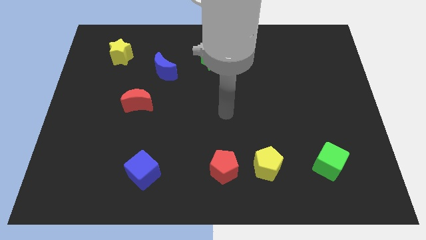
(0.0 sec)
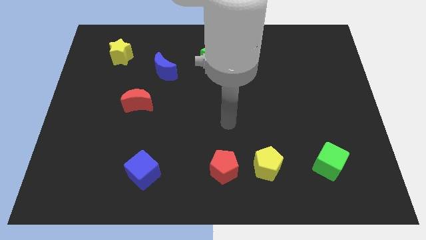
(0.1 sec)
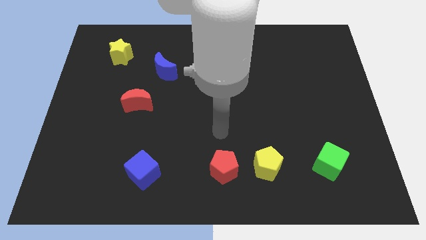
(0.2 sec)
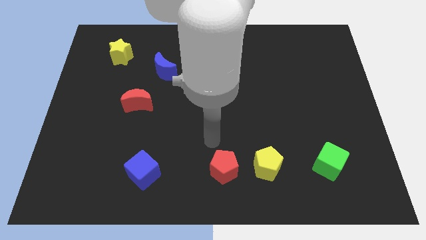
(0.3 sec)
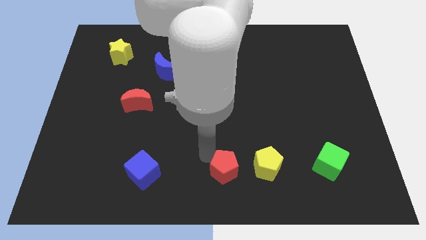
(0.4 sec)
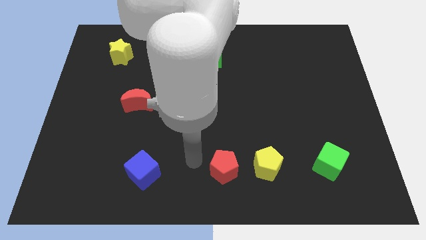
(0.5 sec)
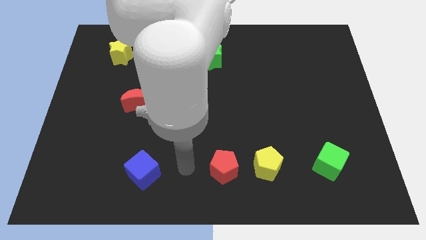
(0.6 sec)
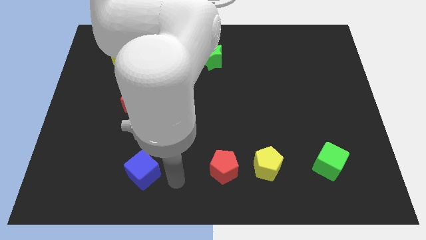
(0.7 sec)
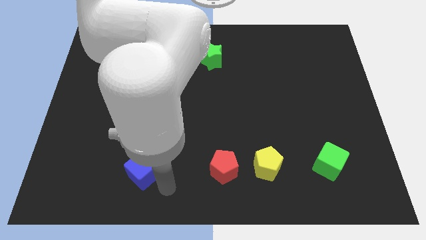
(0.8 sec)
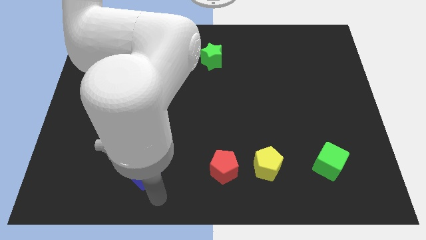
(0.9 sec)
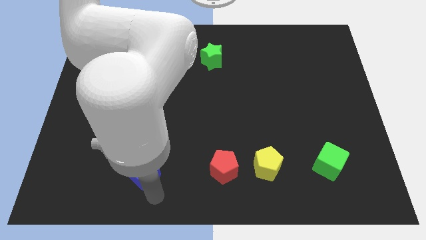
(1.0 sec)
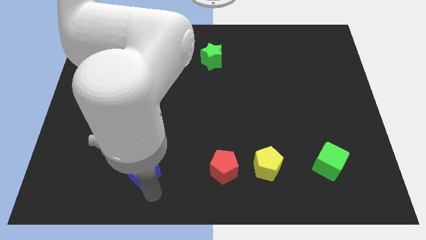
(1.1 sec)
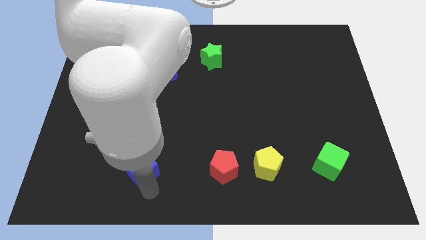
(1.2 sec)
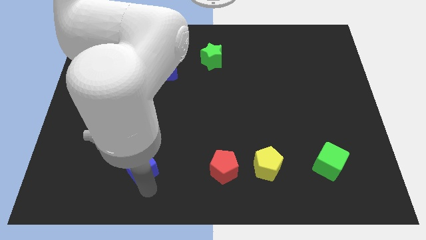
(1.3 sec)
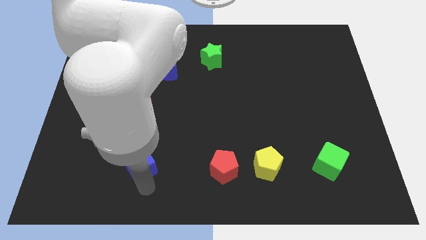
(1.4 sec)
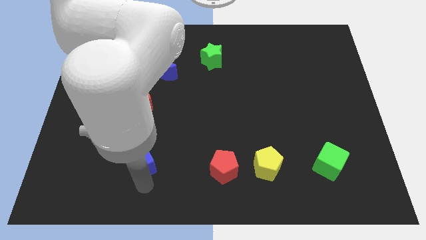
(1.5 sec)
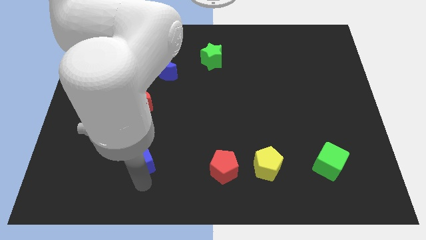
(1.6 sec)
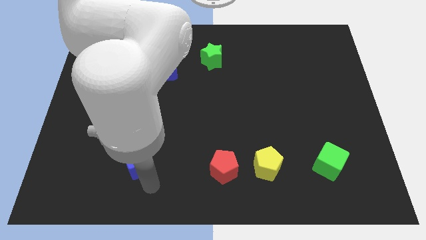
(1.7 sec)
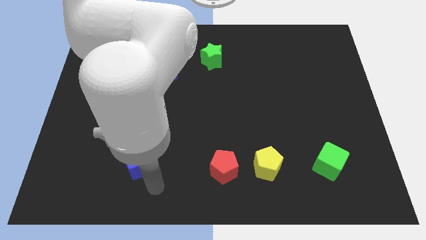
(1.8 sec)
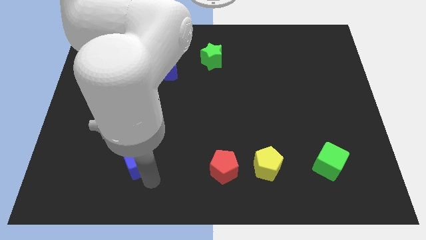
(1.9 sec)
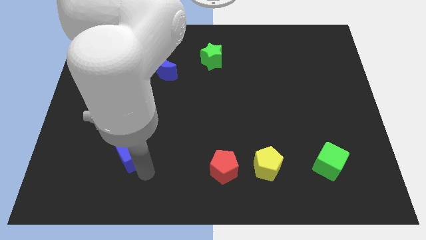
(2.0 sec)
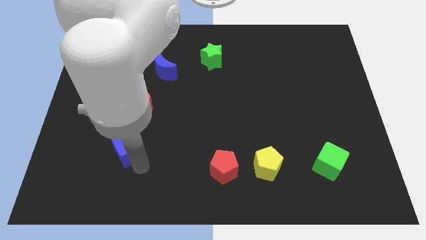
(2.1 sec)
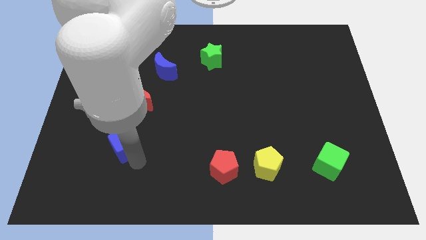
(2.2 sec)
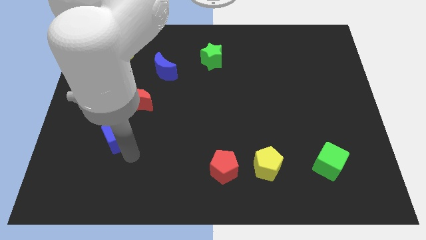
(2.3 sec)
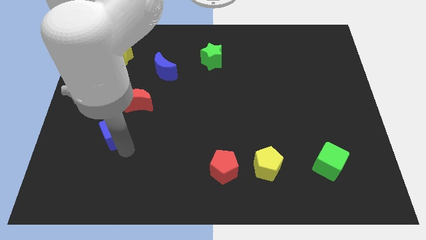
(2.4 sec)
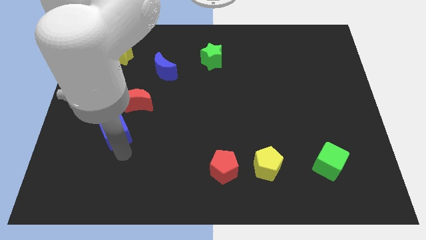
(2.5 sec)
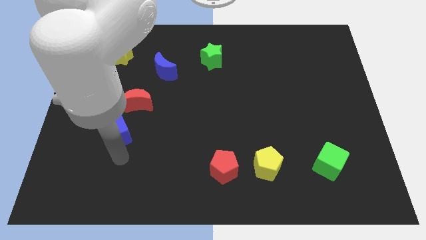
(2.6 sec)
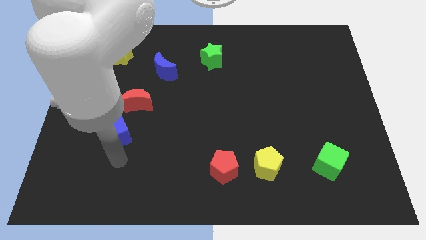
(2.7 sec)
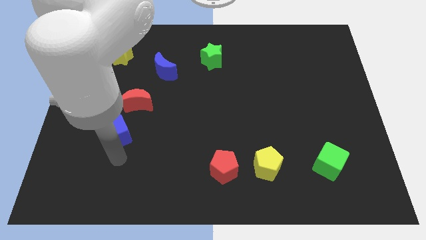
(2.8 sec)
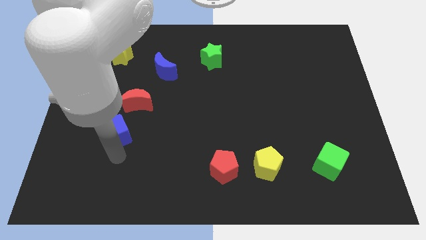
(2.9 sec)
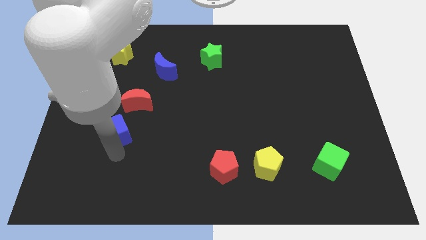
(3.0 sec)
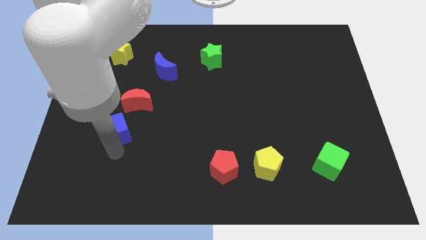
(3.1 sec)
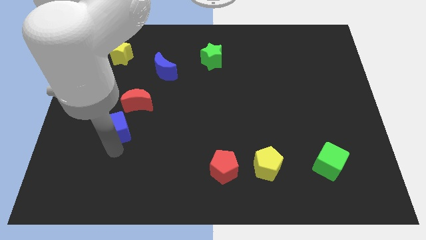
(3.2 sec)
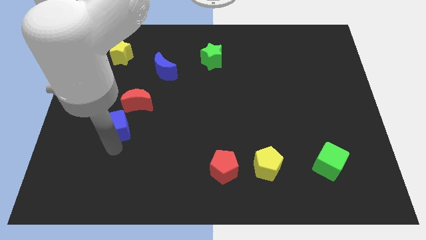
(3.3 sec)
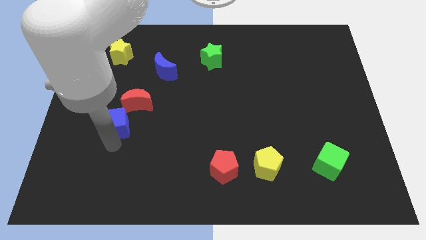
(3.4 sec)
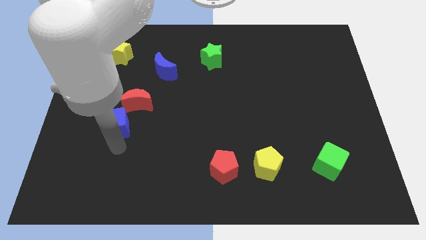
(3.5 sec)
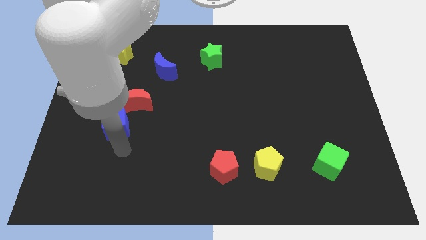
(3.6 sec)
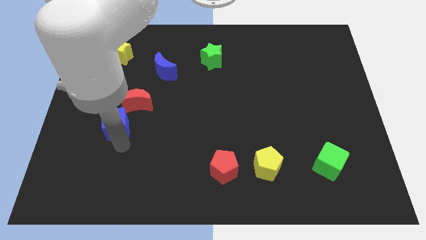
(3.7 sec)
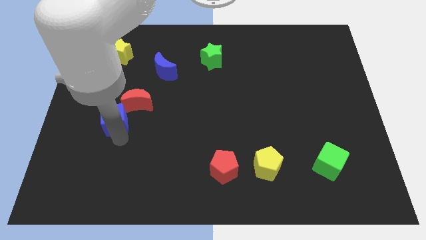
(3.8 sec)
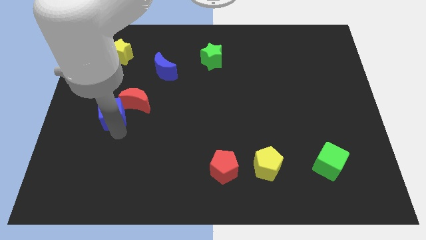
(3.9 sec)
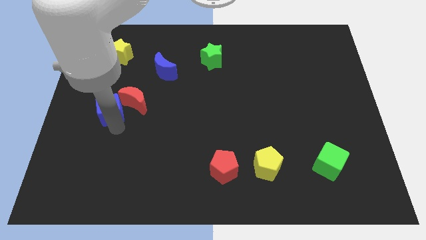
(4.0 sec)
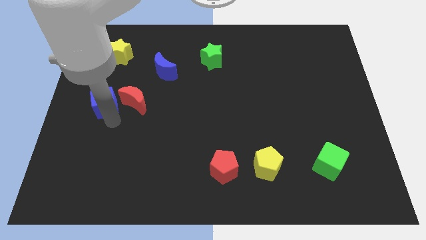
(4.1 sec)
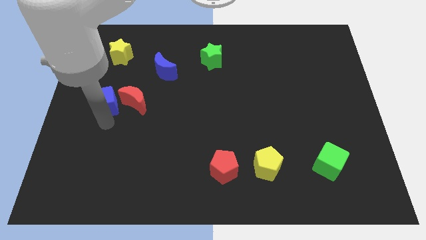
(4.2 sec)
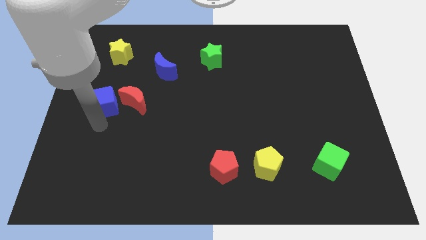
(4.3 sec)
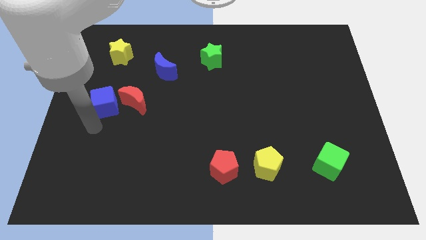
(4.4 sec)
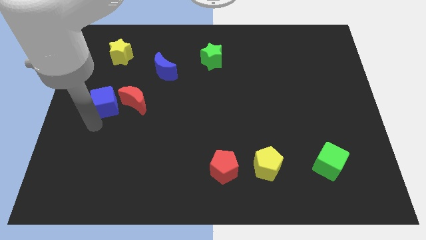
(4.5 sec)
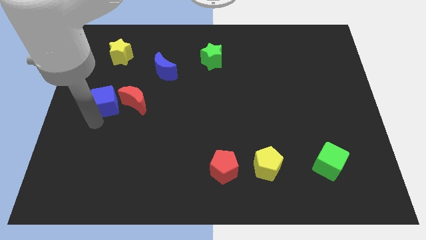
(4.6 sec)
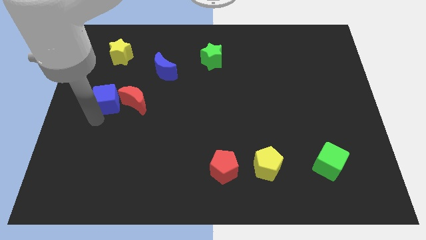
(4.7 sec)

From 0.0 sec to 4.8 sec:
slide the blue cube diagonally up and to the left of the red moon

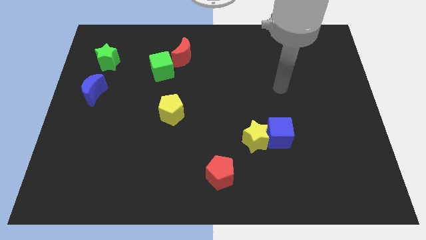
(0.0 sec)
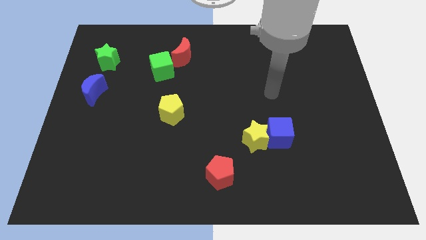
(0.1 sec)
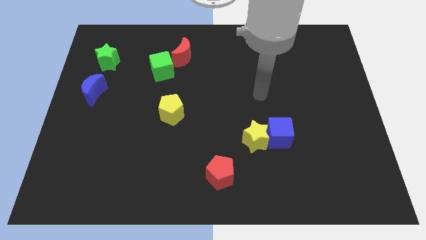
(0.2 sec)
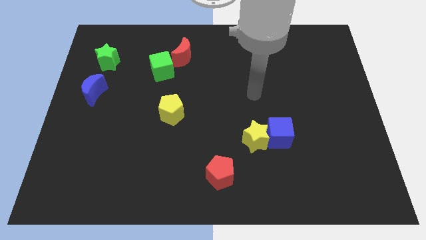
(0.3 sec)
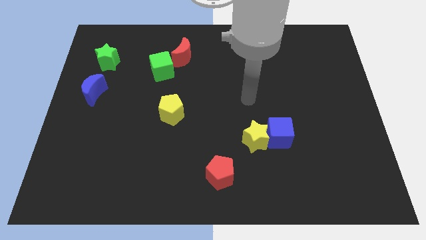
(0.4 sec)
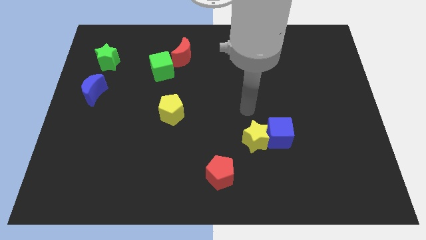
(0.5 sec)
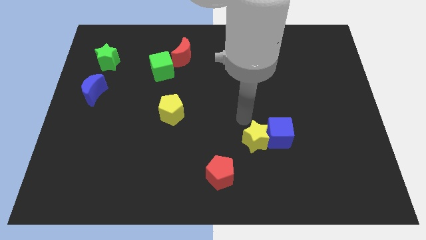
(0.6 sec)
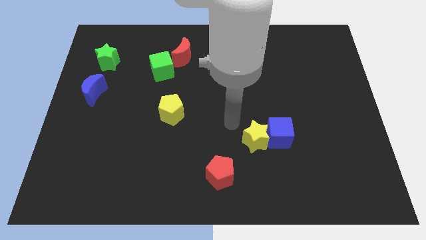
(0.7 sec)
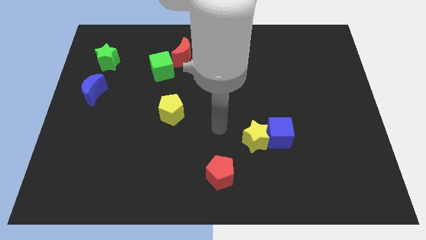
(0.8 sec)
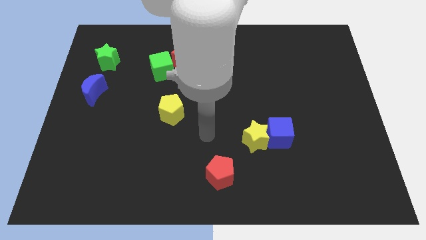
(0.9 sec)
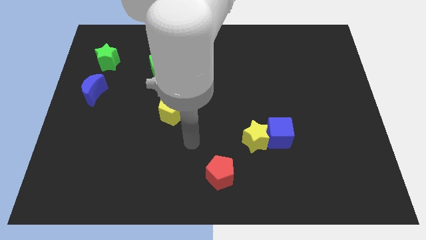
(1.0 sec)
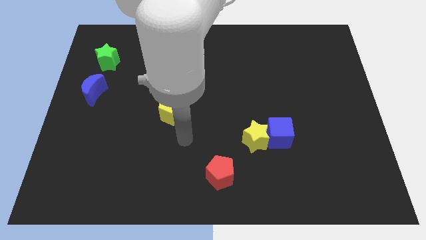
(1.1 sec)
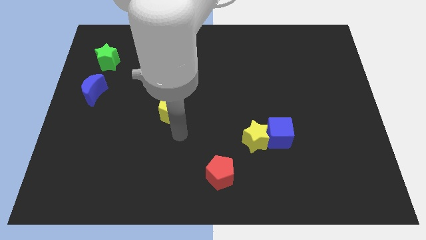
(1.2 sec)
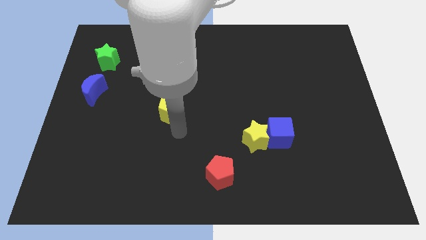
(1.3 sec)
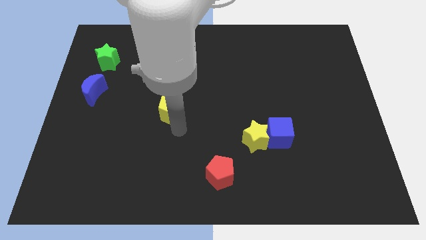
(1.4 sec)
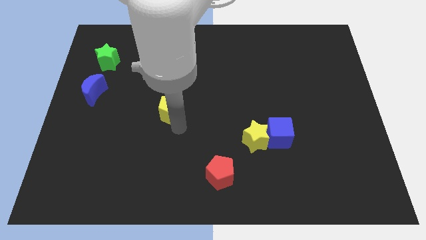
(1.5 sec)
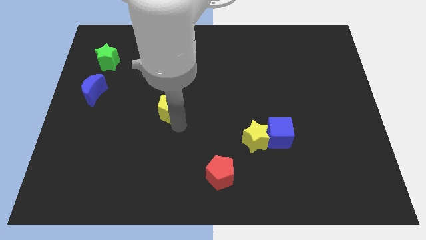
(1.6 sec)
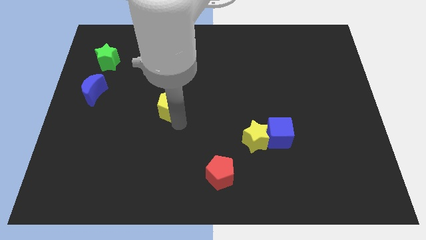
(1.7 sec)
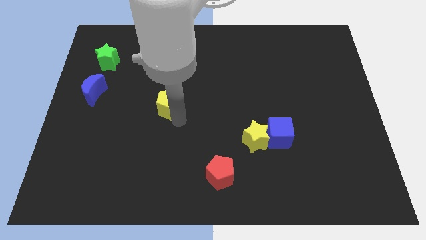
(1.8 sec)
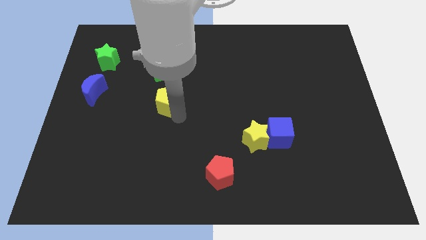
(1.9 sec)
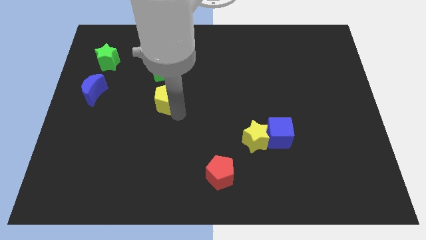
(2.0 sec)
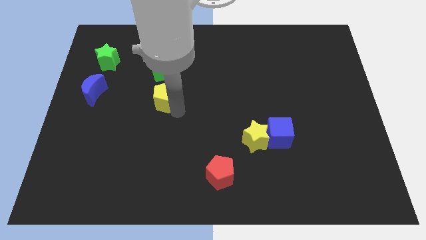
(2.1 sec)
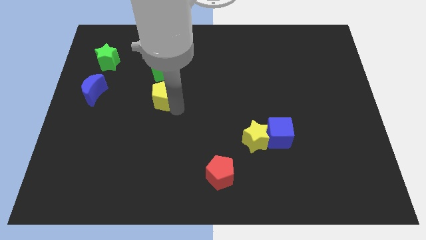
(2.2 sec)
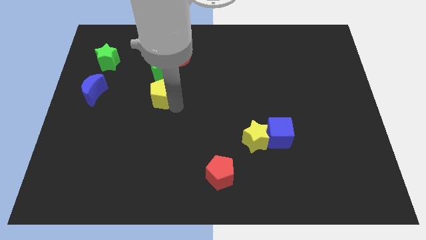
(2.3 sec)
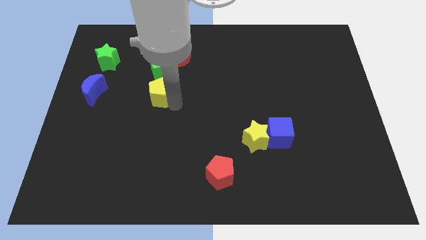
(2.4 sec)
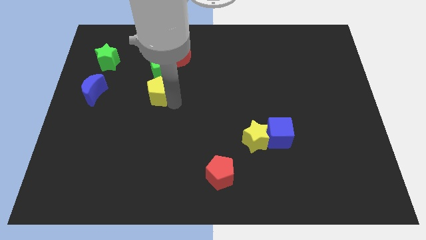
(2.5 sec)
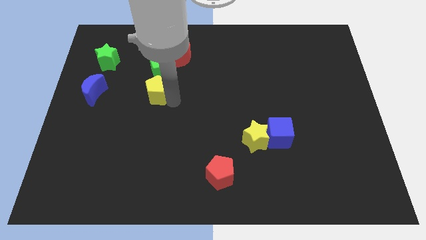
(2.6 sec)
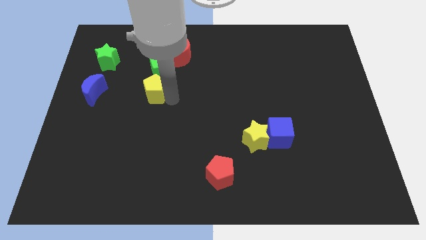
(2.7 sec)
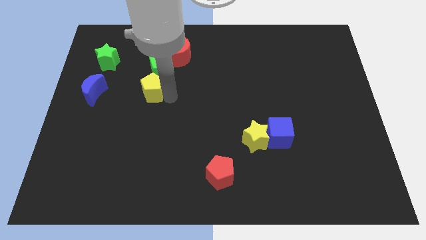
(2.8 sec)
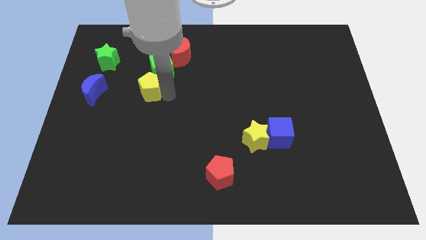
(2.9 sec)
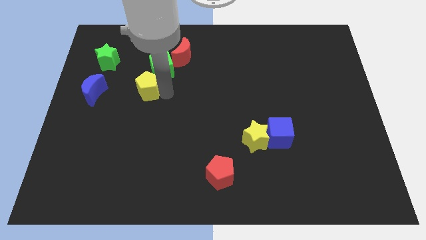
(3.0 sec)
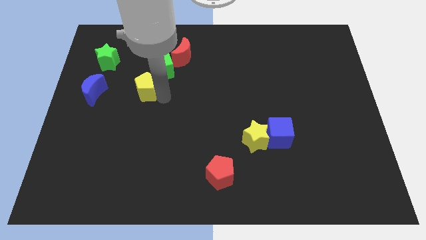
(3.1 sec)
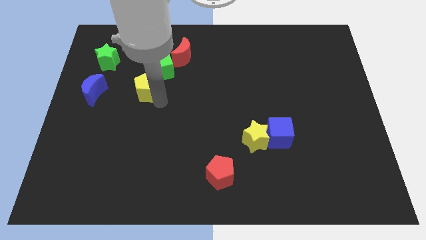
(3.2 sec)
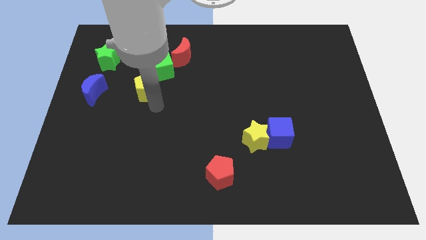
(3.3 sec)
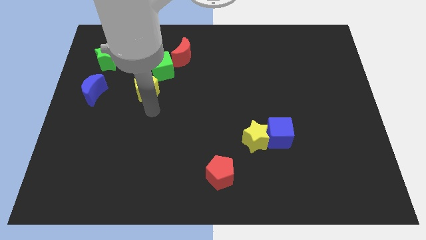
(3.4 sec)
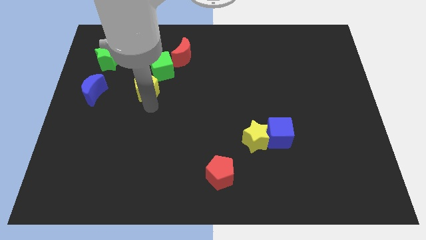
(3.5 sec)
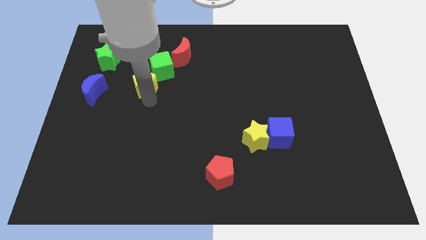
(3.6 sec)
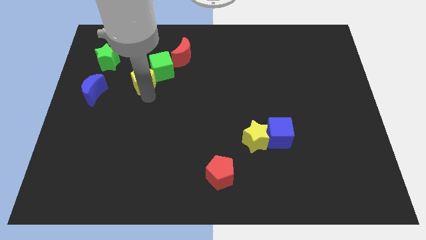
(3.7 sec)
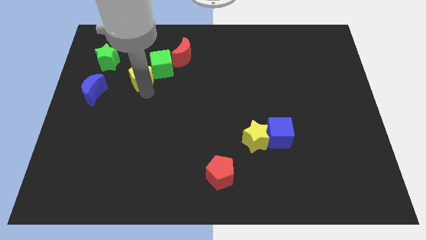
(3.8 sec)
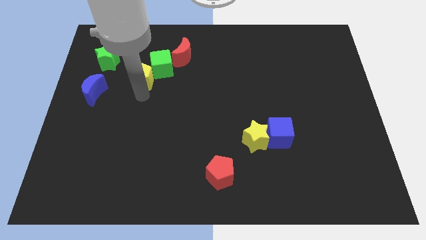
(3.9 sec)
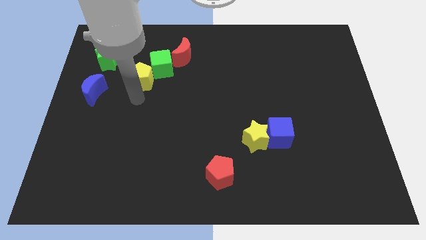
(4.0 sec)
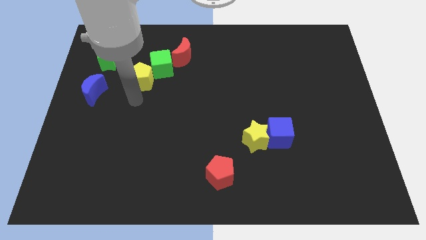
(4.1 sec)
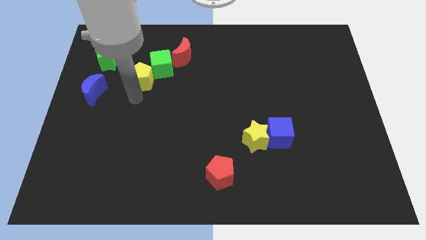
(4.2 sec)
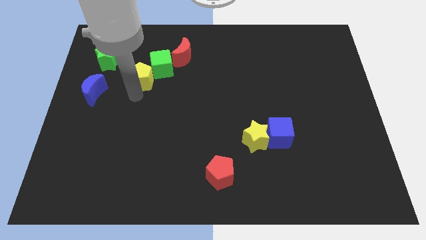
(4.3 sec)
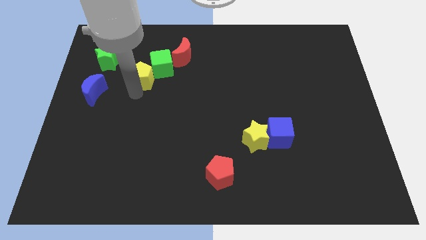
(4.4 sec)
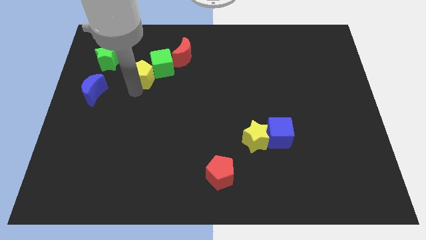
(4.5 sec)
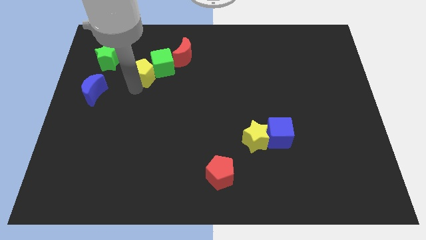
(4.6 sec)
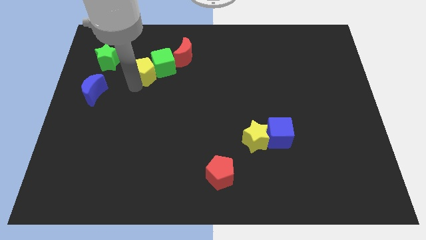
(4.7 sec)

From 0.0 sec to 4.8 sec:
slide the yellow pentagon to the right of the green star
